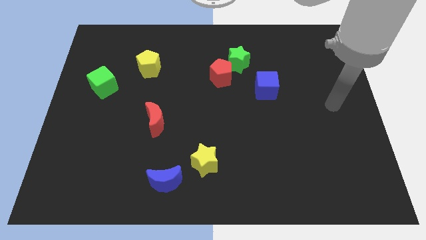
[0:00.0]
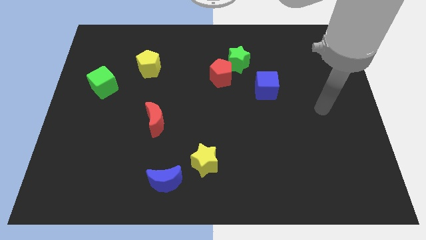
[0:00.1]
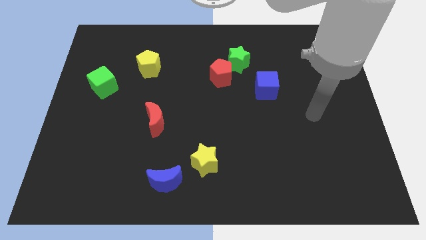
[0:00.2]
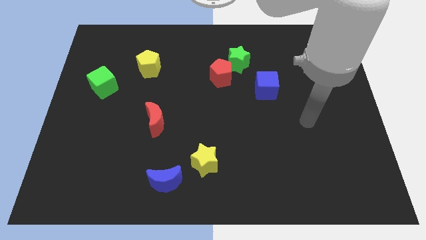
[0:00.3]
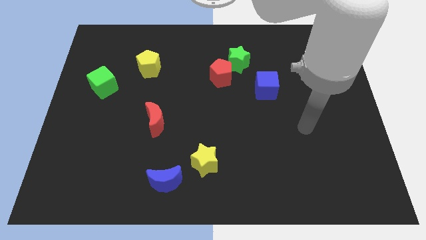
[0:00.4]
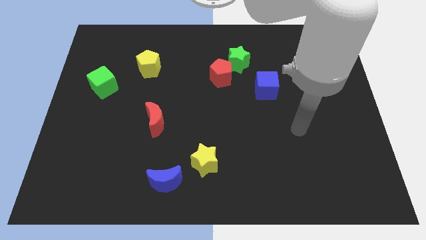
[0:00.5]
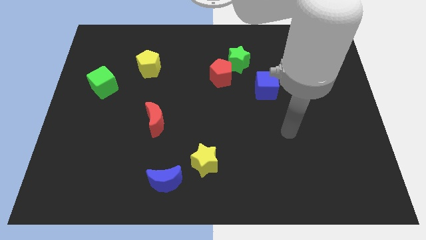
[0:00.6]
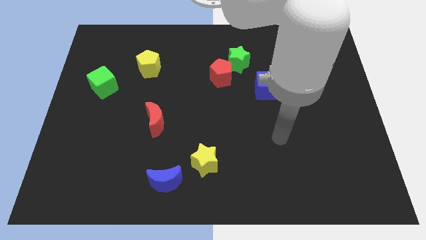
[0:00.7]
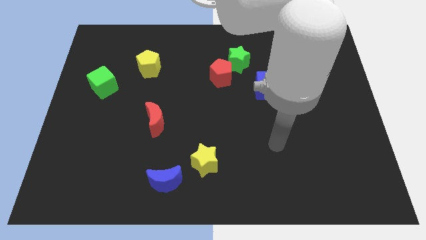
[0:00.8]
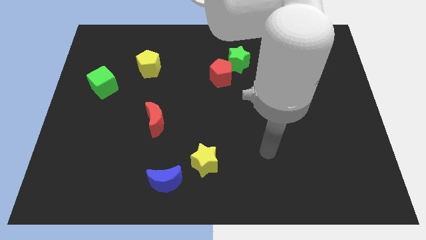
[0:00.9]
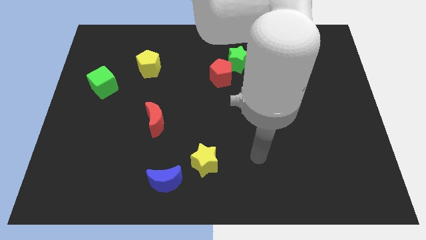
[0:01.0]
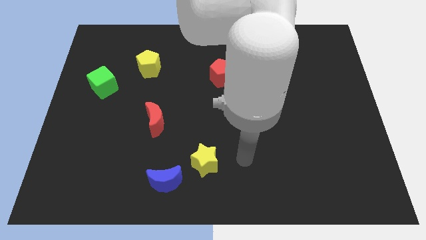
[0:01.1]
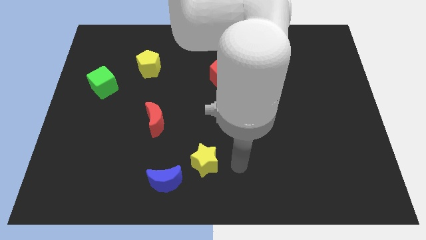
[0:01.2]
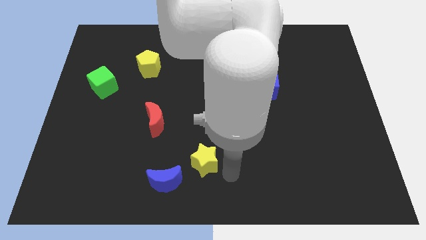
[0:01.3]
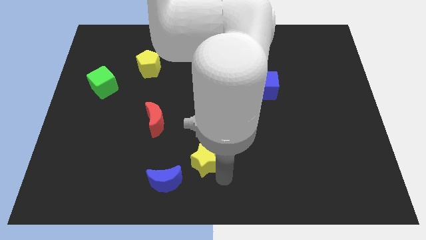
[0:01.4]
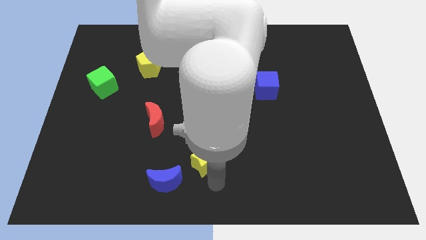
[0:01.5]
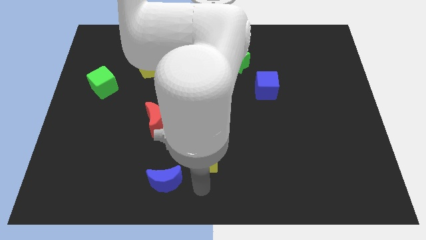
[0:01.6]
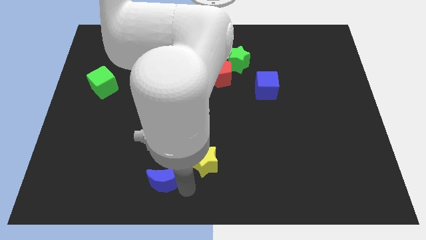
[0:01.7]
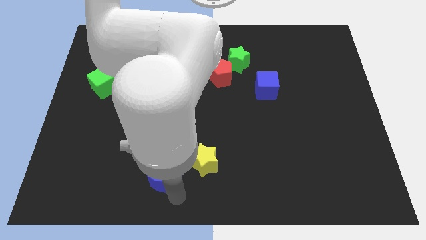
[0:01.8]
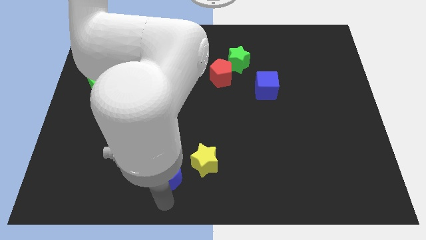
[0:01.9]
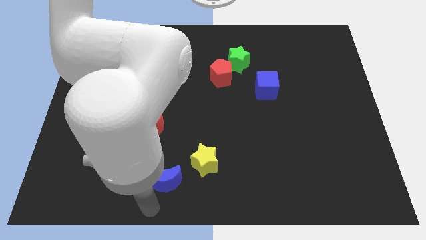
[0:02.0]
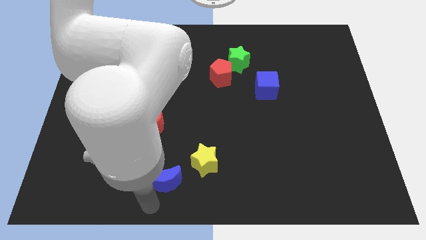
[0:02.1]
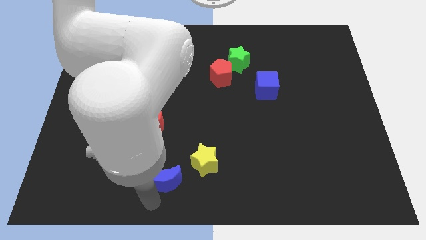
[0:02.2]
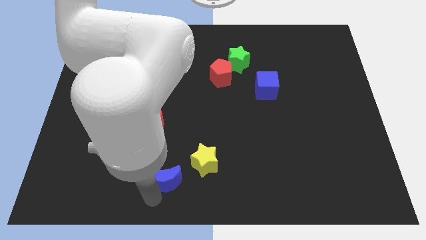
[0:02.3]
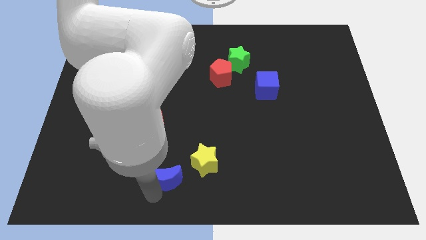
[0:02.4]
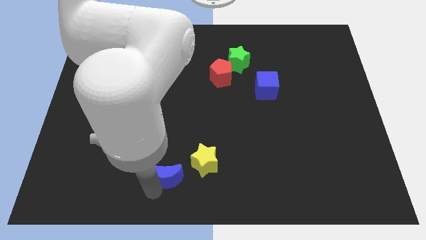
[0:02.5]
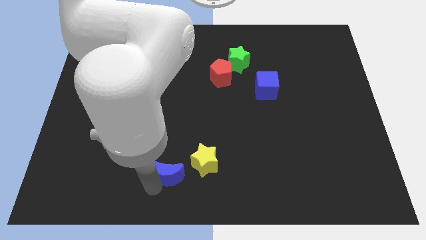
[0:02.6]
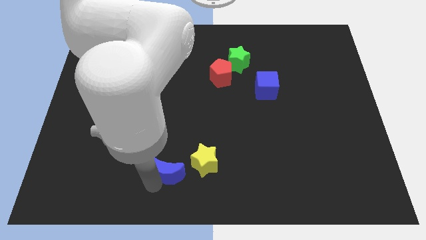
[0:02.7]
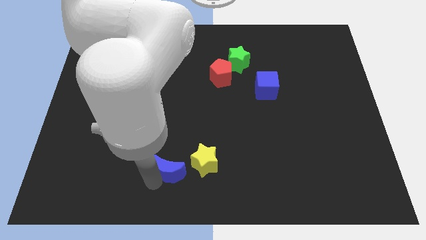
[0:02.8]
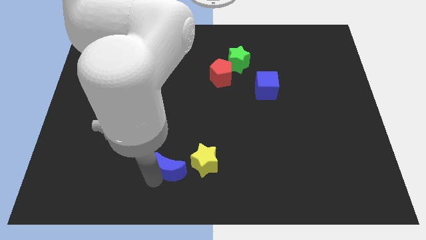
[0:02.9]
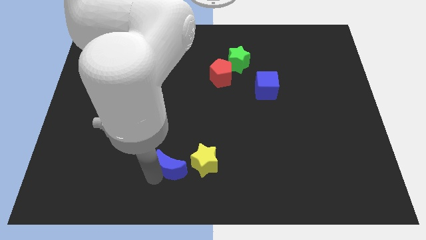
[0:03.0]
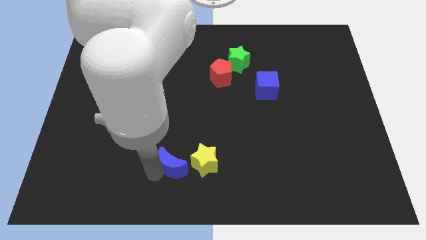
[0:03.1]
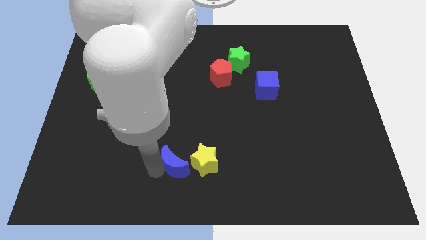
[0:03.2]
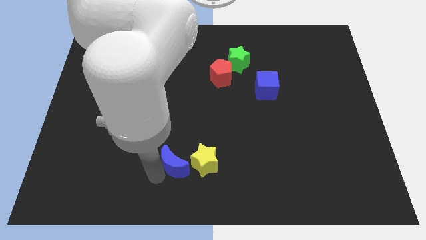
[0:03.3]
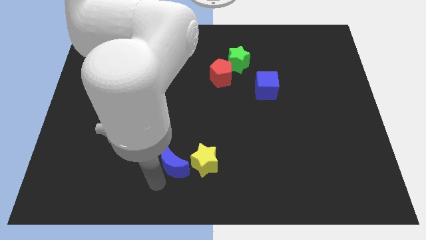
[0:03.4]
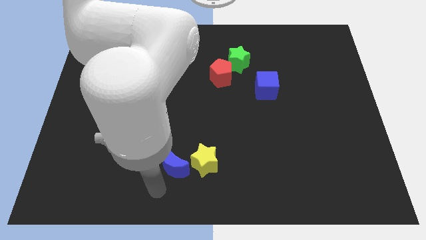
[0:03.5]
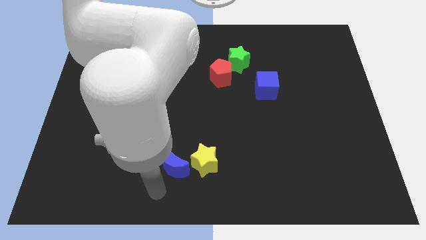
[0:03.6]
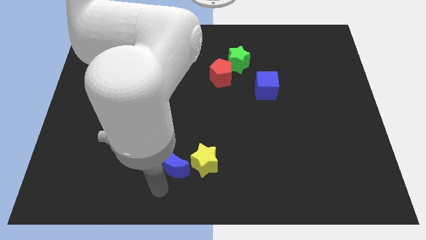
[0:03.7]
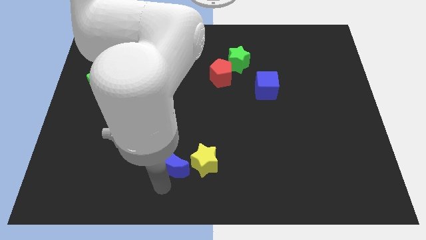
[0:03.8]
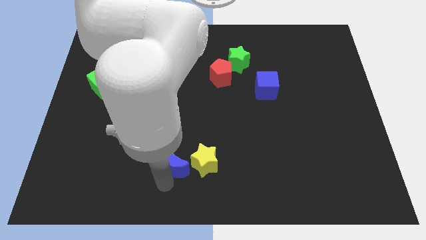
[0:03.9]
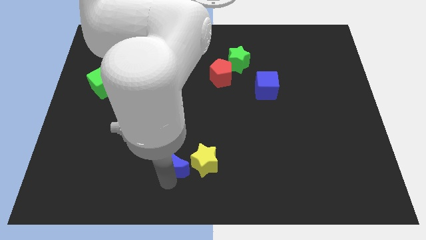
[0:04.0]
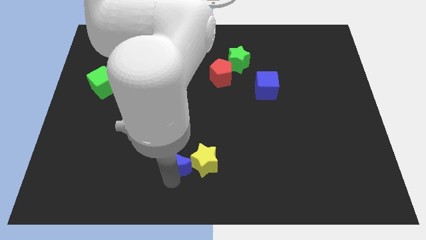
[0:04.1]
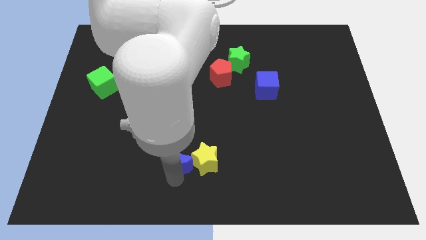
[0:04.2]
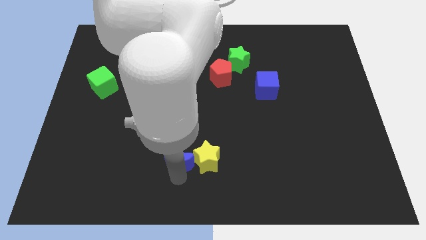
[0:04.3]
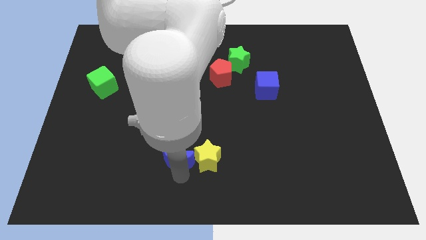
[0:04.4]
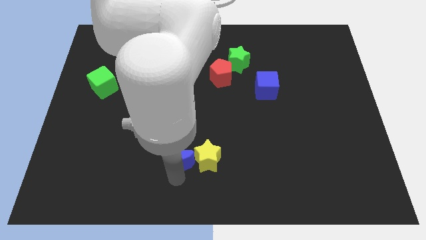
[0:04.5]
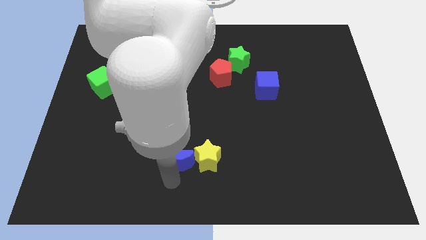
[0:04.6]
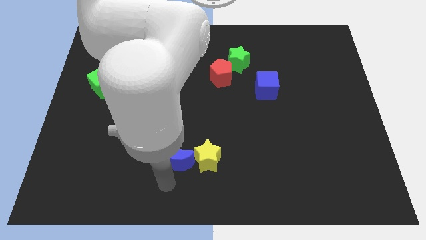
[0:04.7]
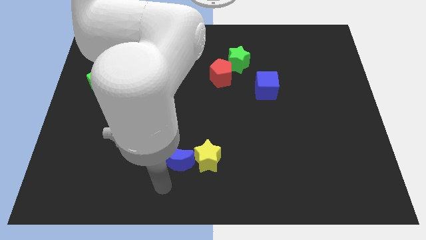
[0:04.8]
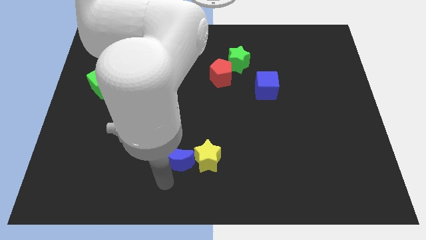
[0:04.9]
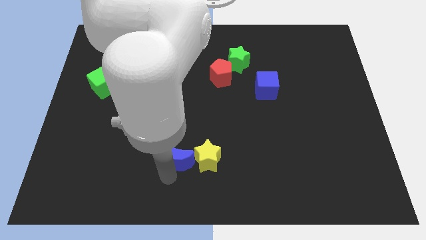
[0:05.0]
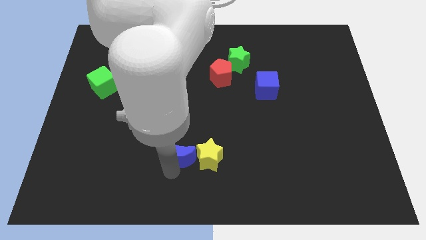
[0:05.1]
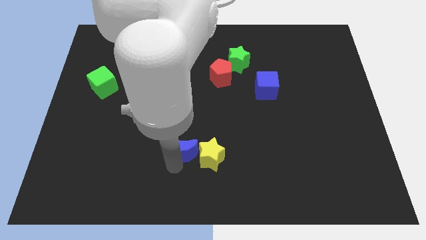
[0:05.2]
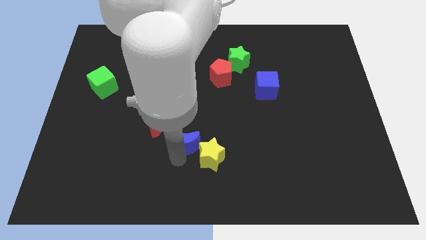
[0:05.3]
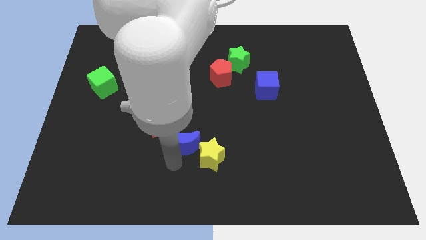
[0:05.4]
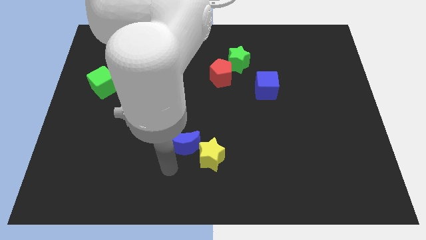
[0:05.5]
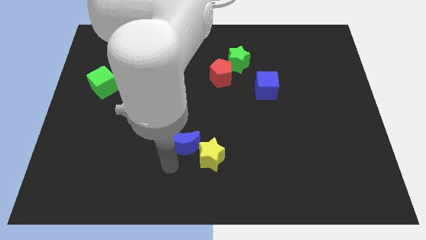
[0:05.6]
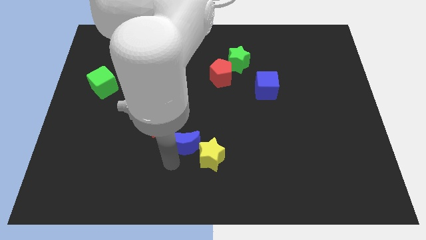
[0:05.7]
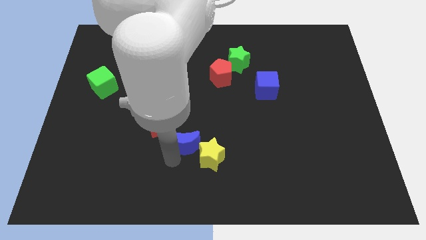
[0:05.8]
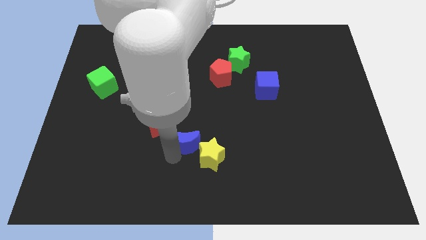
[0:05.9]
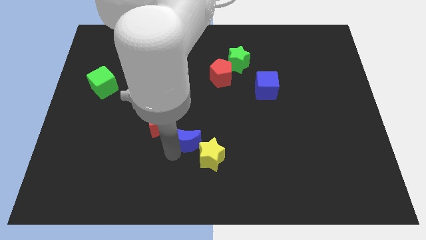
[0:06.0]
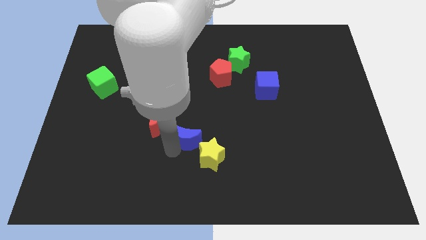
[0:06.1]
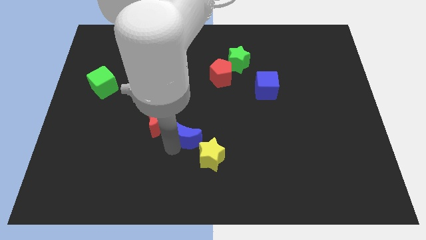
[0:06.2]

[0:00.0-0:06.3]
put the blue moon to the middle
